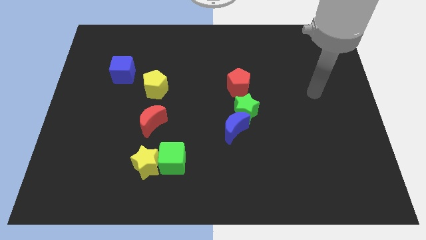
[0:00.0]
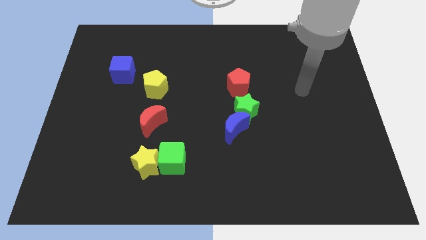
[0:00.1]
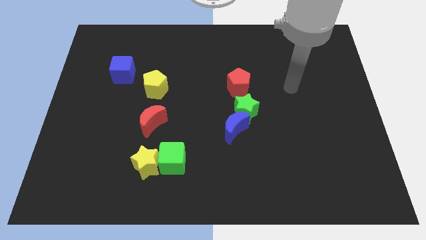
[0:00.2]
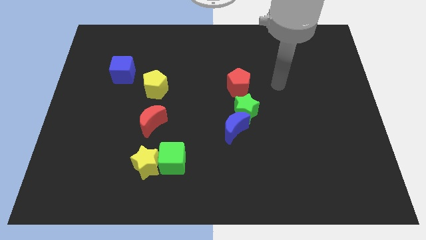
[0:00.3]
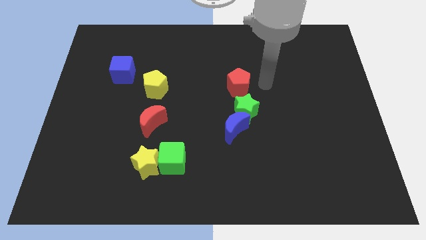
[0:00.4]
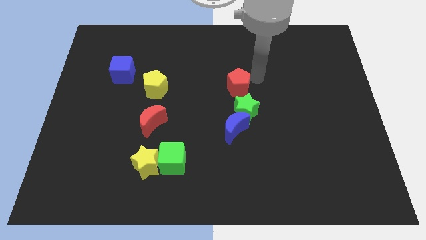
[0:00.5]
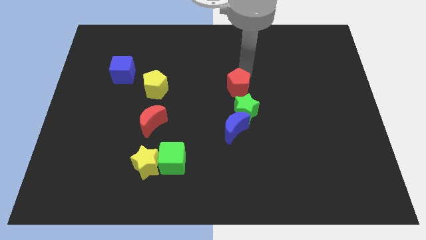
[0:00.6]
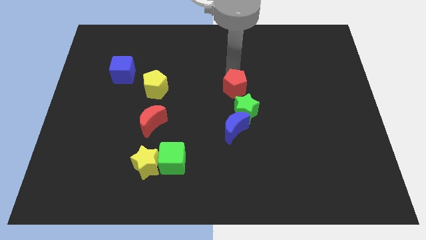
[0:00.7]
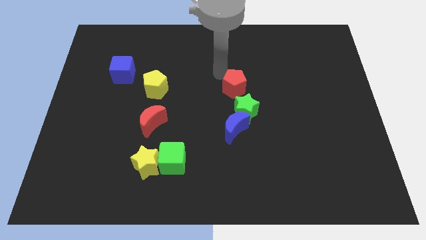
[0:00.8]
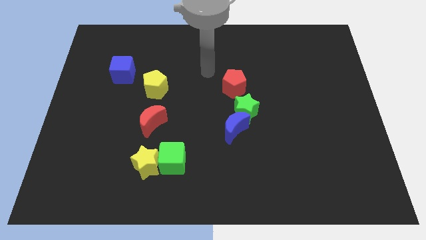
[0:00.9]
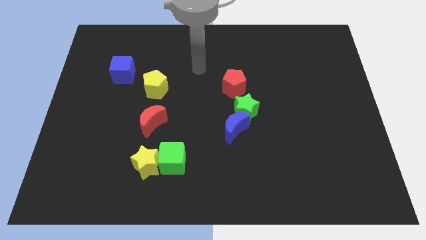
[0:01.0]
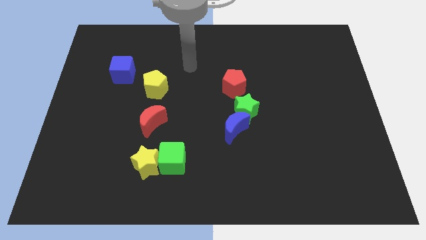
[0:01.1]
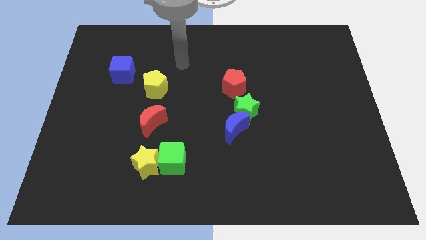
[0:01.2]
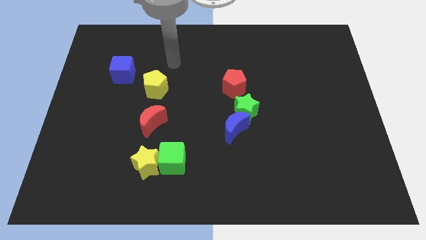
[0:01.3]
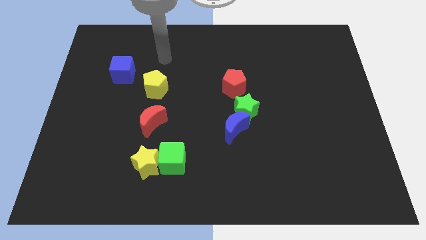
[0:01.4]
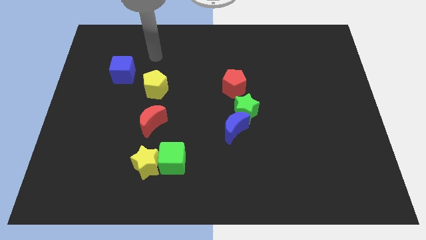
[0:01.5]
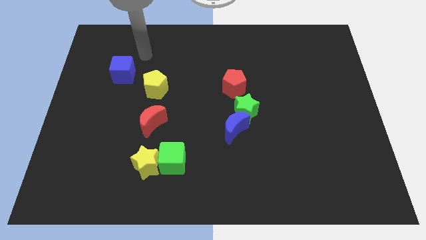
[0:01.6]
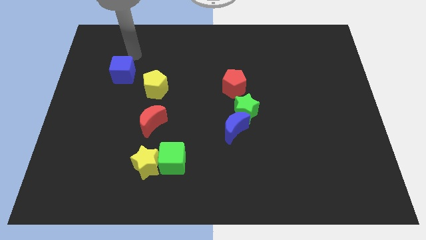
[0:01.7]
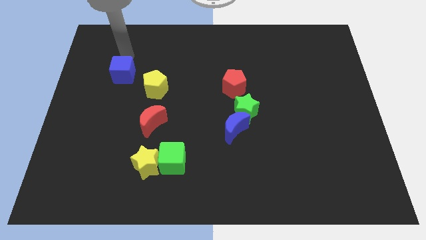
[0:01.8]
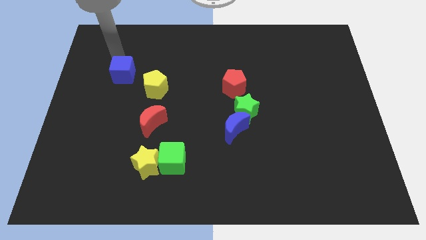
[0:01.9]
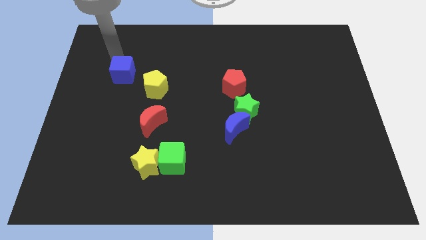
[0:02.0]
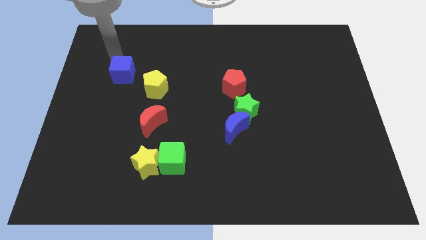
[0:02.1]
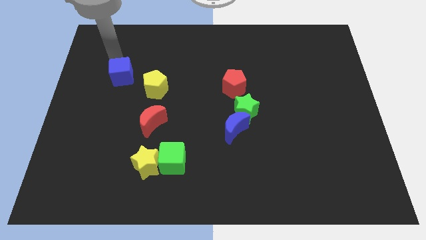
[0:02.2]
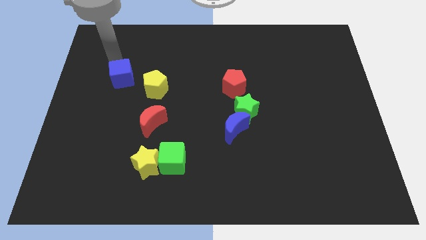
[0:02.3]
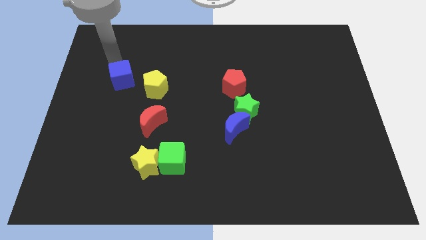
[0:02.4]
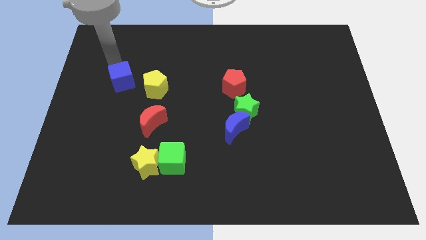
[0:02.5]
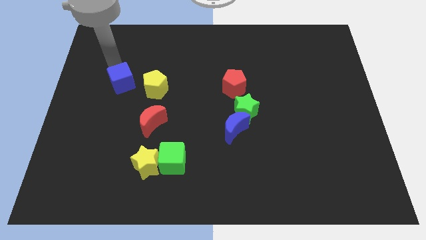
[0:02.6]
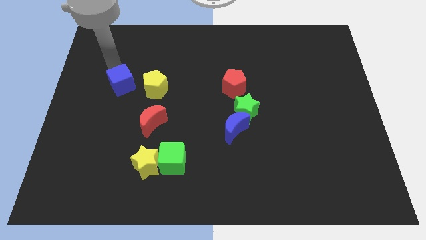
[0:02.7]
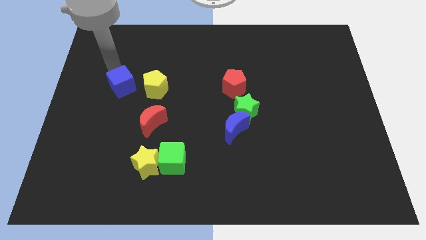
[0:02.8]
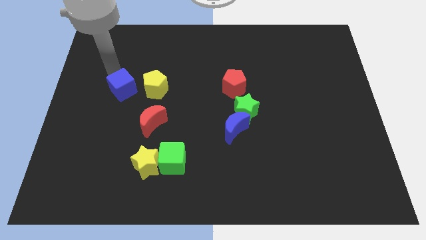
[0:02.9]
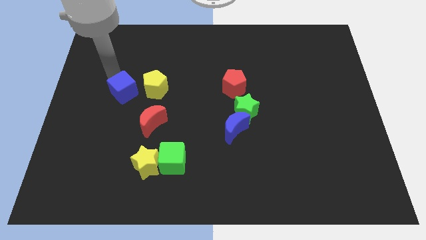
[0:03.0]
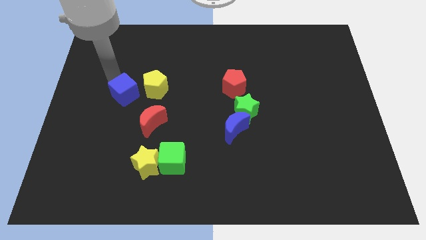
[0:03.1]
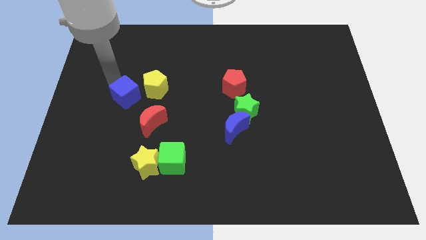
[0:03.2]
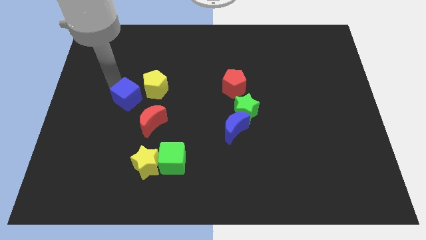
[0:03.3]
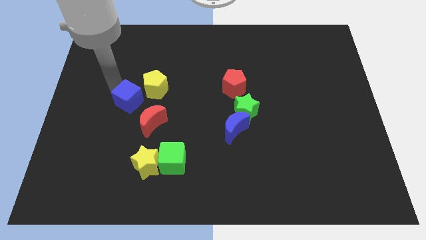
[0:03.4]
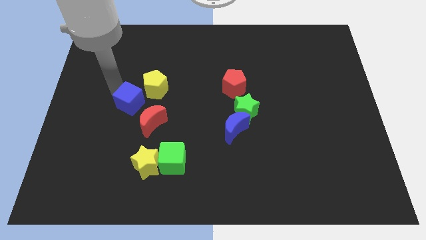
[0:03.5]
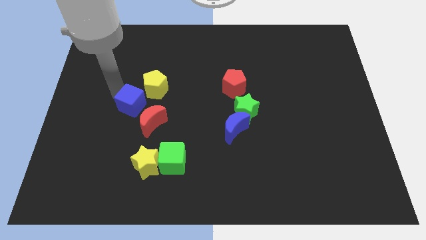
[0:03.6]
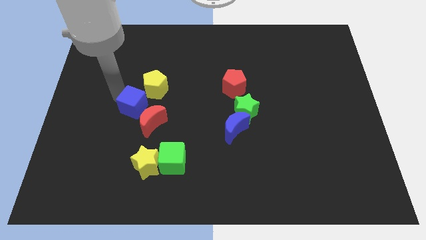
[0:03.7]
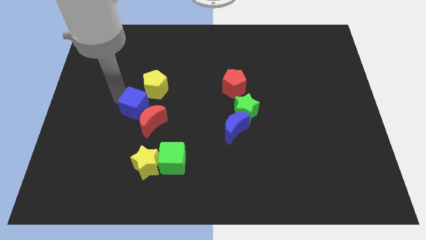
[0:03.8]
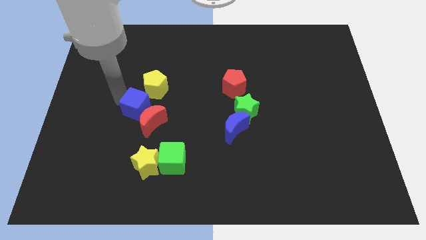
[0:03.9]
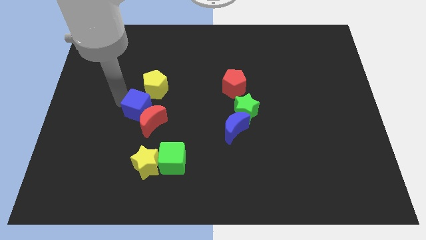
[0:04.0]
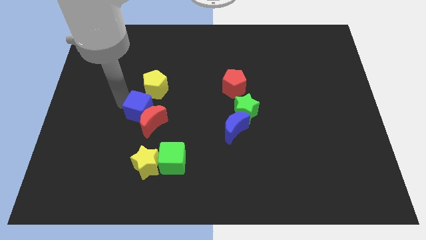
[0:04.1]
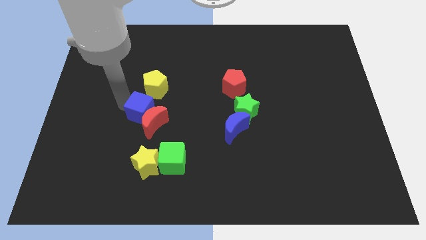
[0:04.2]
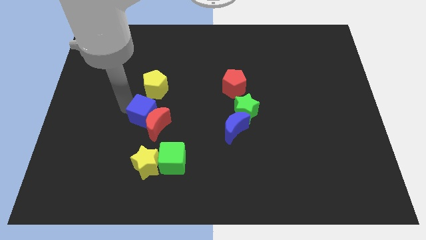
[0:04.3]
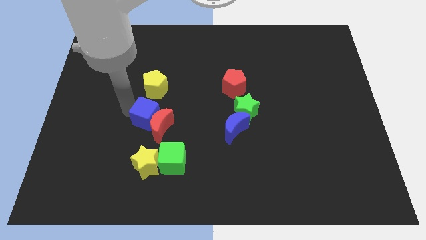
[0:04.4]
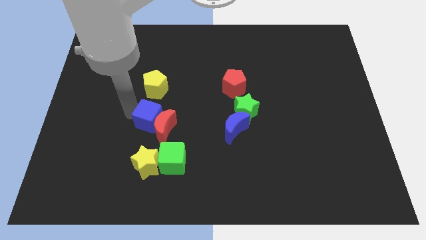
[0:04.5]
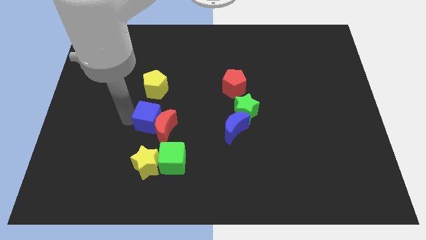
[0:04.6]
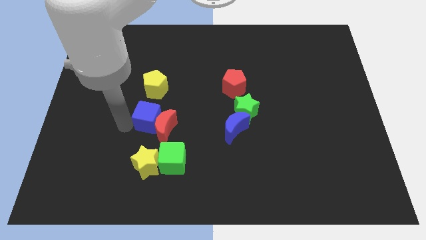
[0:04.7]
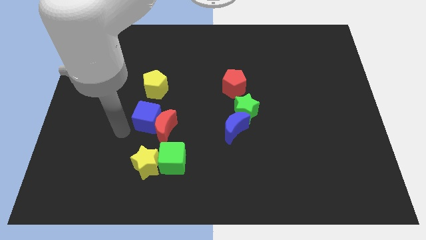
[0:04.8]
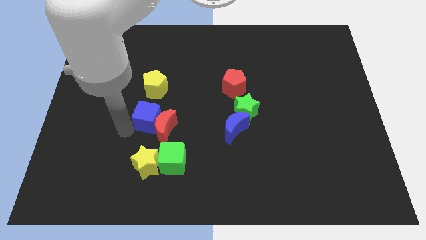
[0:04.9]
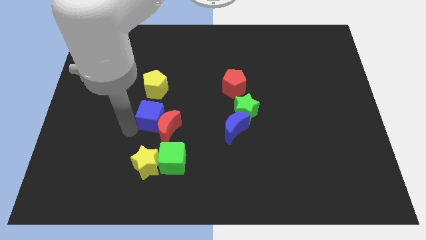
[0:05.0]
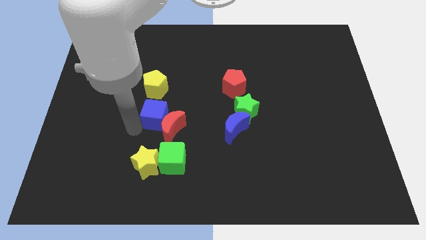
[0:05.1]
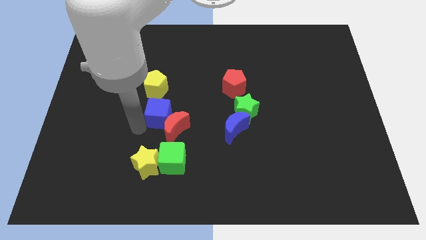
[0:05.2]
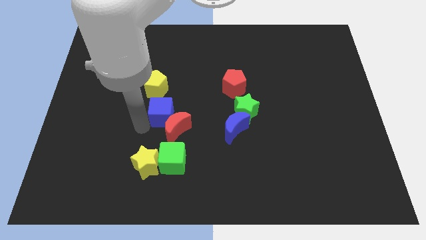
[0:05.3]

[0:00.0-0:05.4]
slide the blue cube to the center
